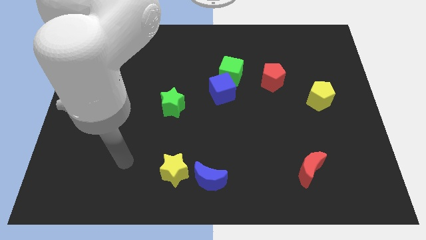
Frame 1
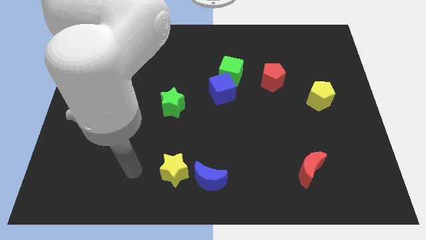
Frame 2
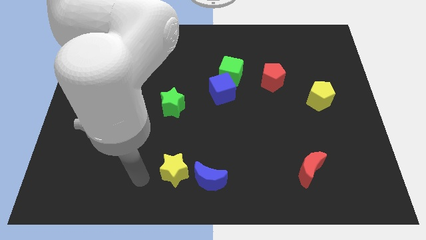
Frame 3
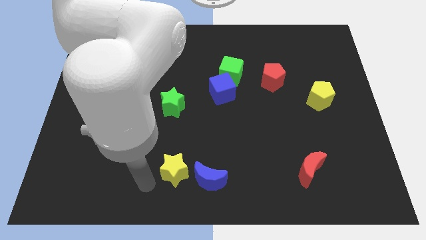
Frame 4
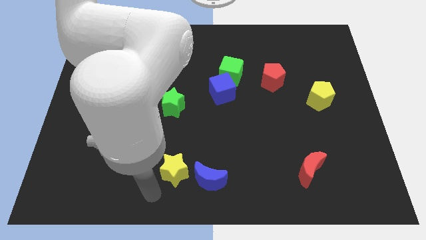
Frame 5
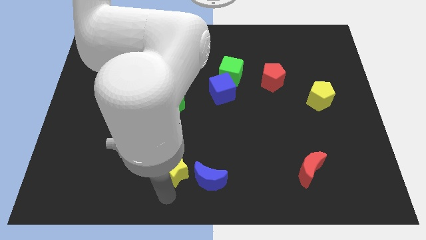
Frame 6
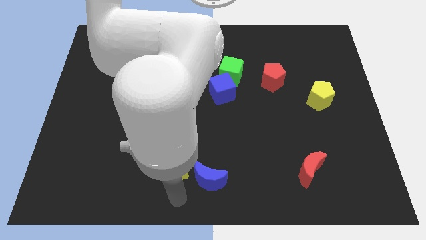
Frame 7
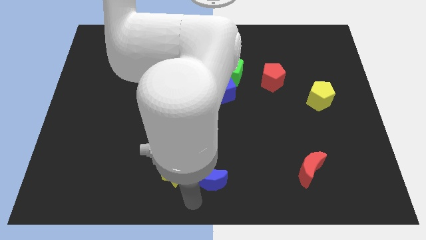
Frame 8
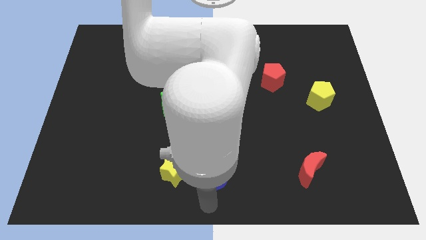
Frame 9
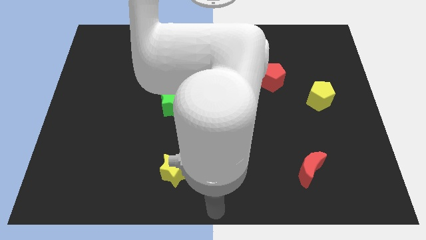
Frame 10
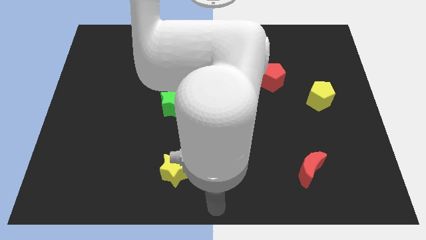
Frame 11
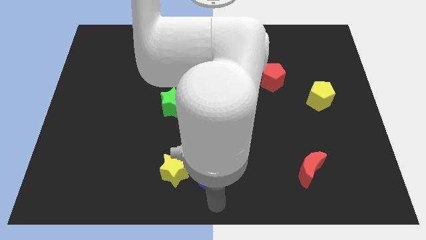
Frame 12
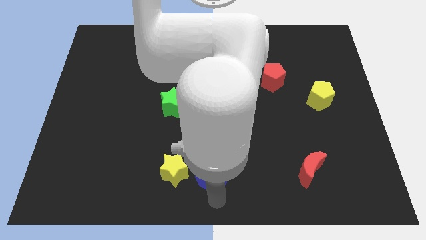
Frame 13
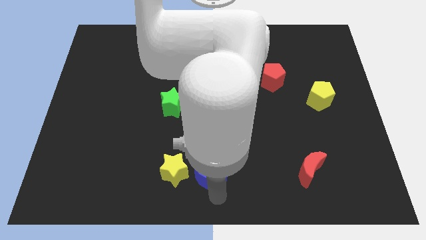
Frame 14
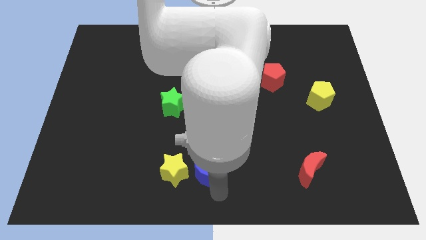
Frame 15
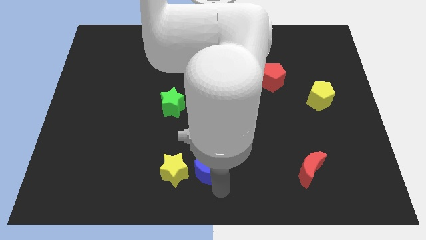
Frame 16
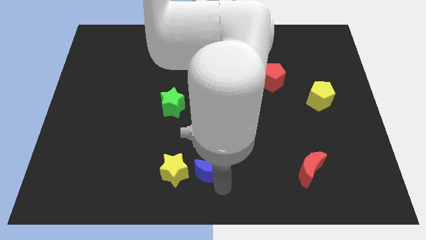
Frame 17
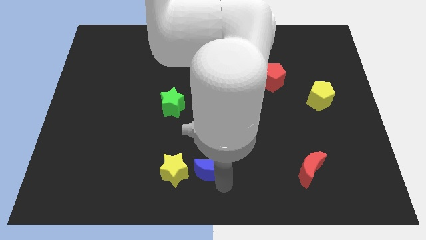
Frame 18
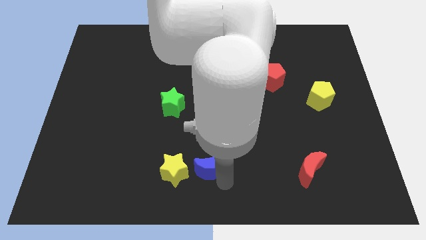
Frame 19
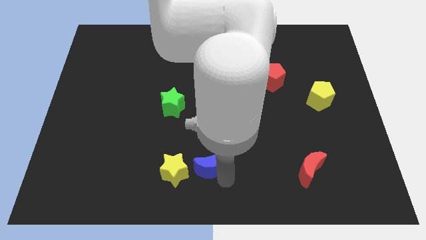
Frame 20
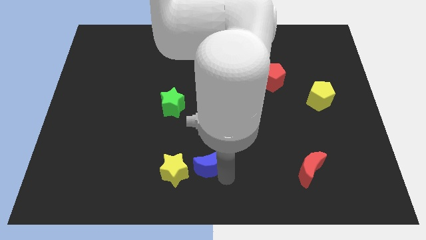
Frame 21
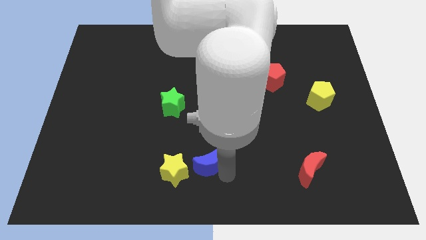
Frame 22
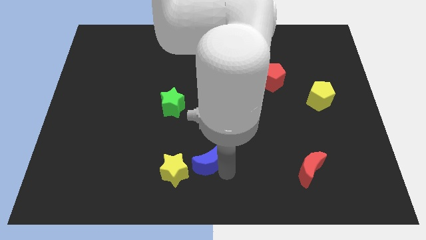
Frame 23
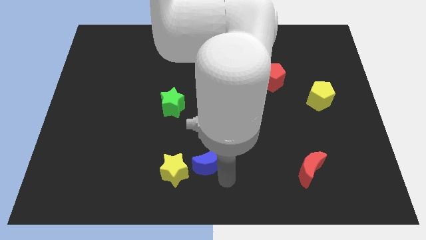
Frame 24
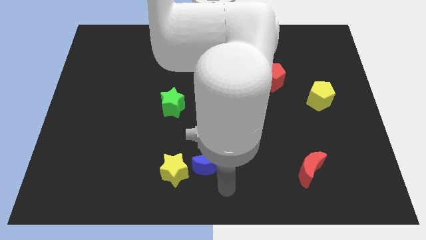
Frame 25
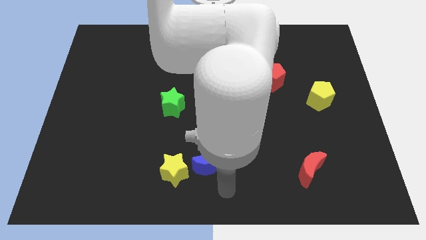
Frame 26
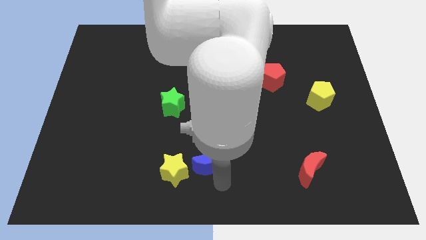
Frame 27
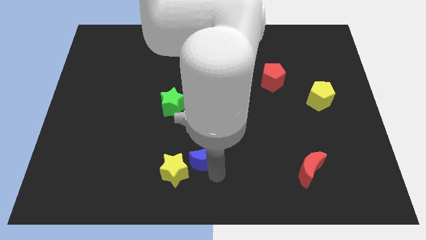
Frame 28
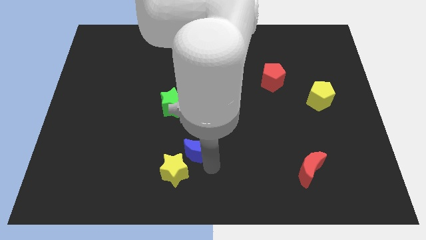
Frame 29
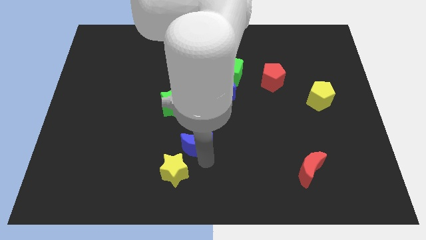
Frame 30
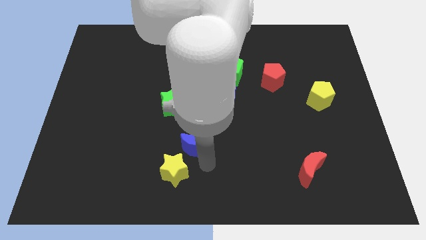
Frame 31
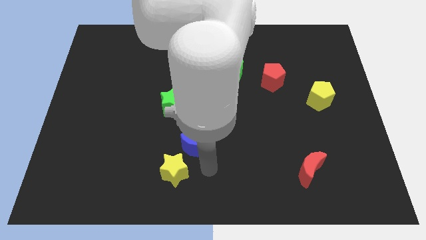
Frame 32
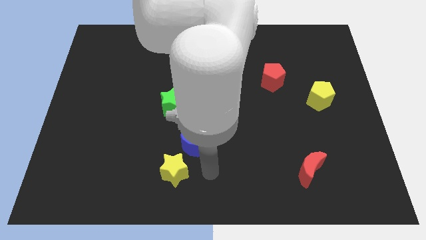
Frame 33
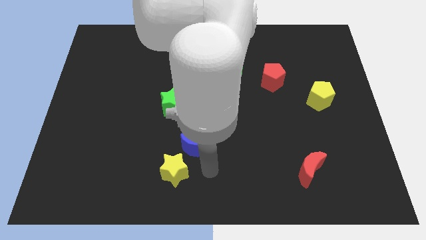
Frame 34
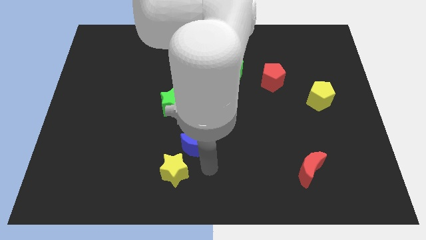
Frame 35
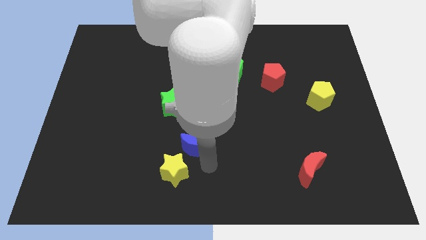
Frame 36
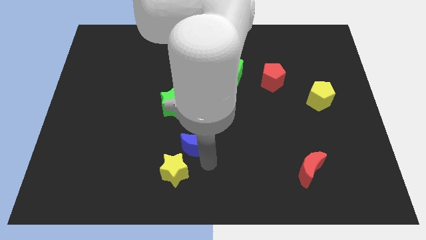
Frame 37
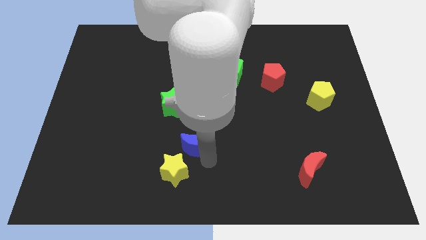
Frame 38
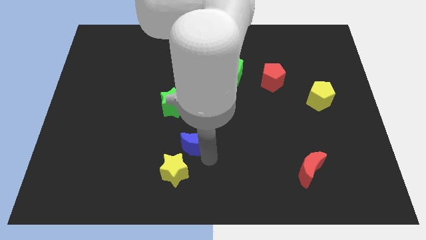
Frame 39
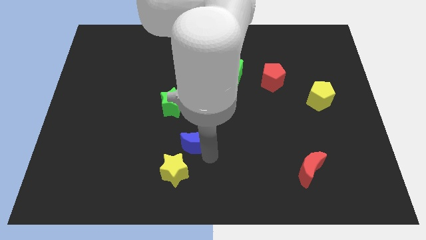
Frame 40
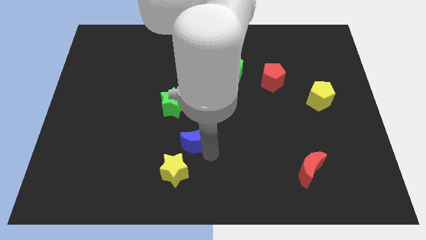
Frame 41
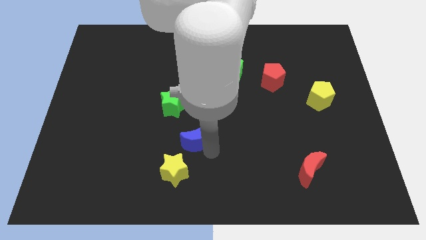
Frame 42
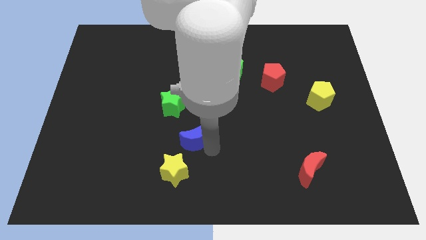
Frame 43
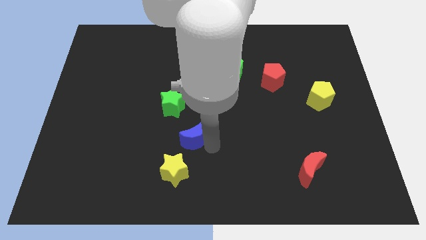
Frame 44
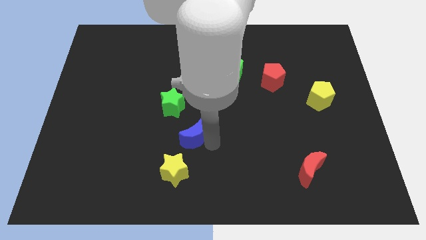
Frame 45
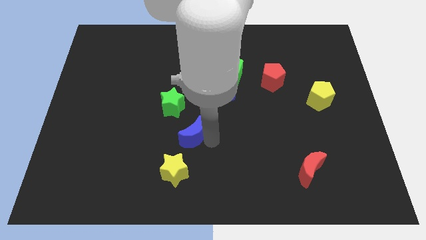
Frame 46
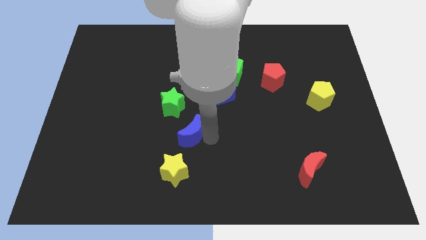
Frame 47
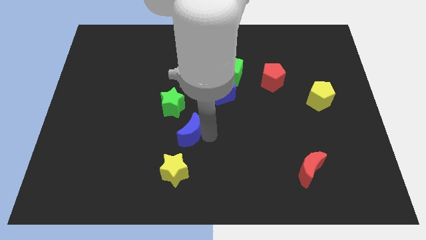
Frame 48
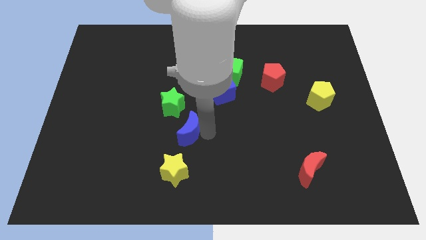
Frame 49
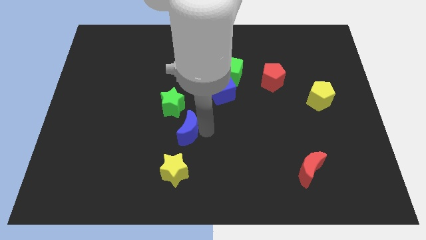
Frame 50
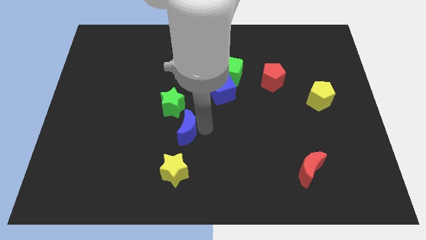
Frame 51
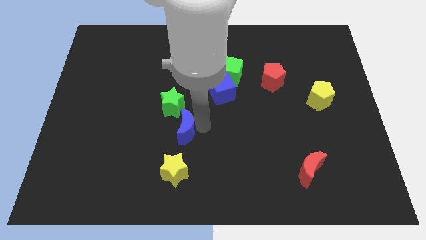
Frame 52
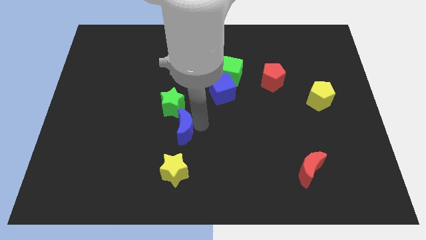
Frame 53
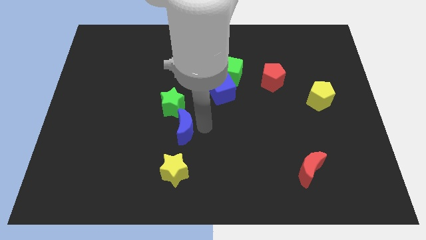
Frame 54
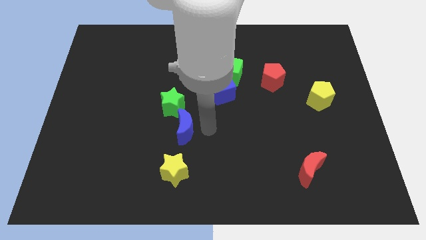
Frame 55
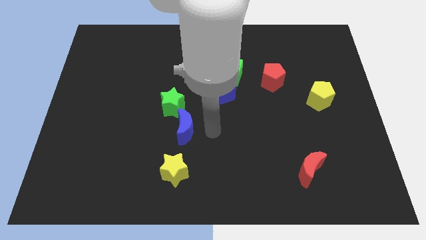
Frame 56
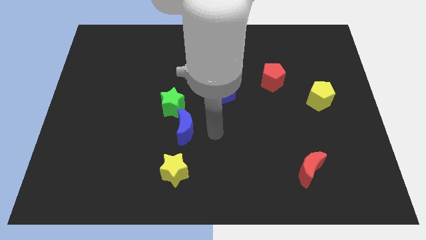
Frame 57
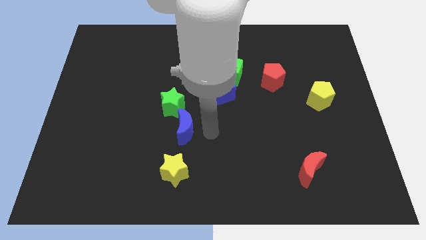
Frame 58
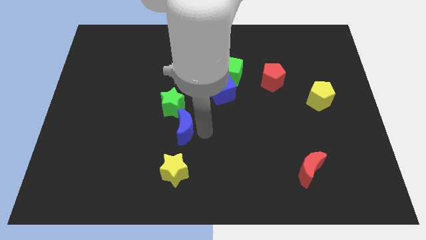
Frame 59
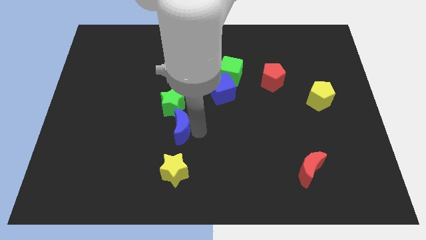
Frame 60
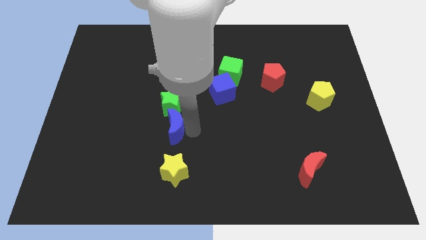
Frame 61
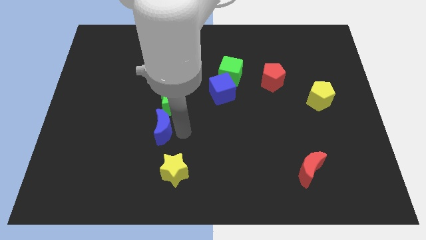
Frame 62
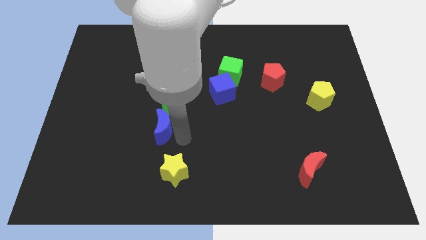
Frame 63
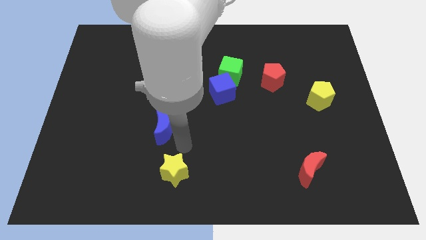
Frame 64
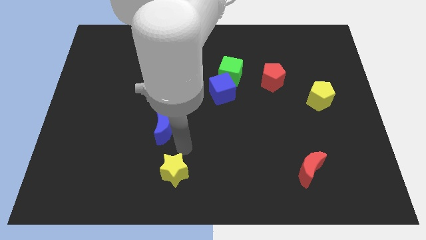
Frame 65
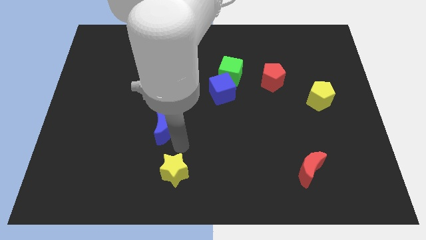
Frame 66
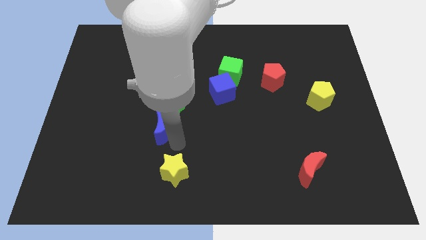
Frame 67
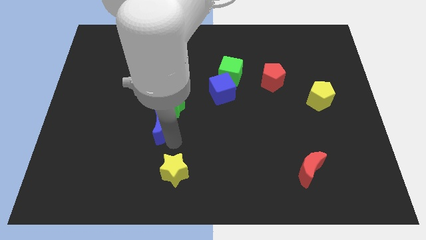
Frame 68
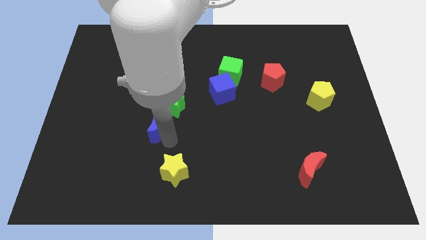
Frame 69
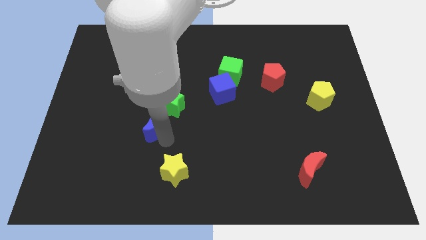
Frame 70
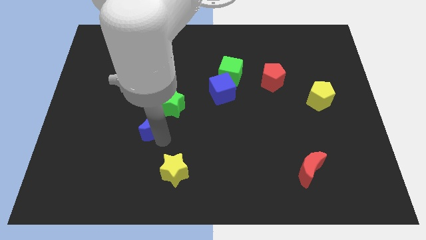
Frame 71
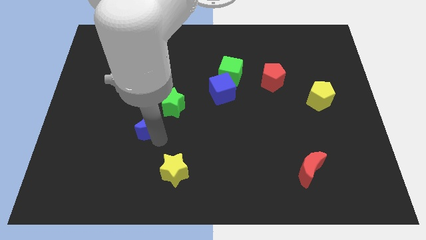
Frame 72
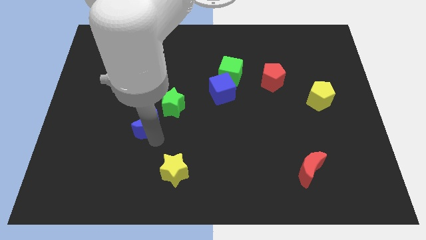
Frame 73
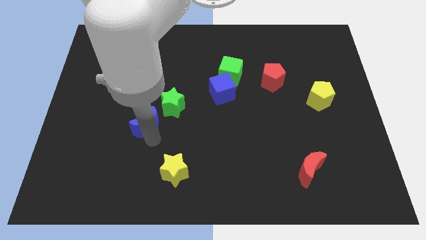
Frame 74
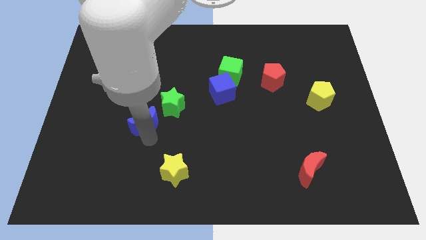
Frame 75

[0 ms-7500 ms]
slide the blue moon up and to the left
